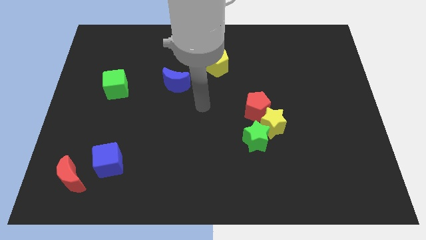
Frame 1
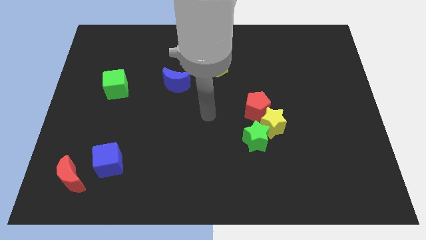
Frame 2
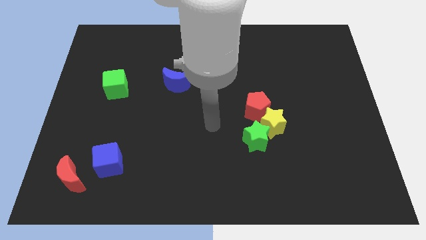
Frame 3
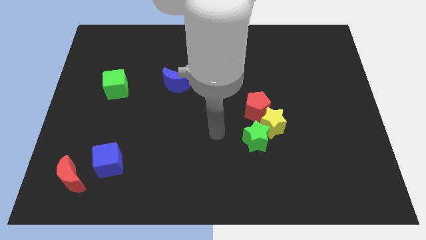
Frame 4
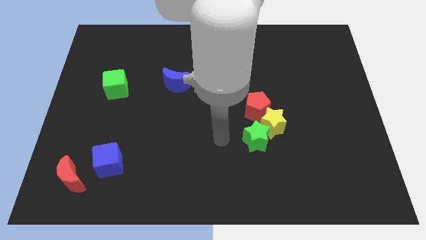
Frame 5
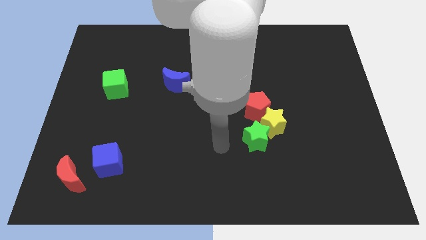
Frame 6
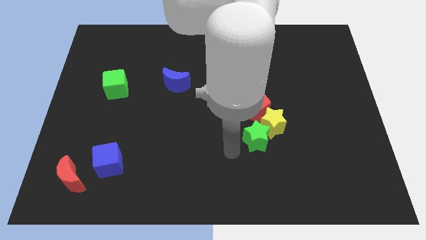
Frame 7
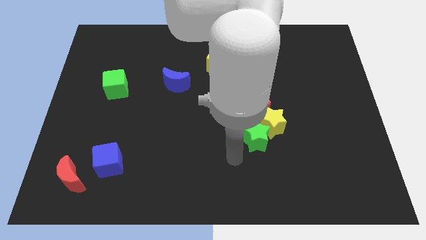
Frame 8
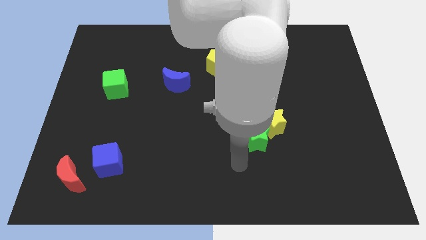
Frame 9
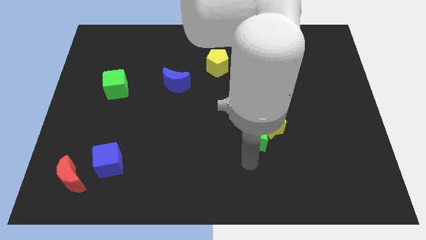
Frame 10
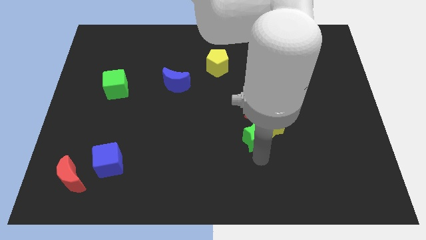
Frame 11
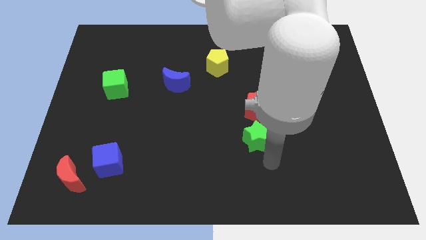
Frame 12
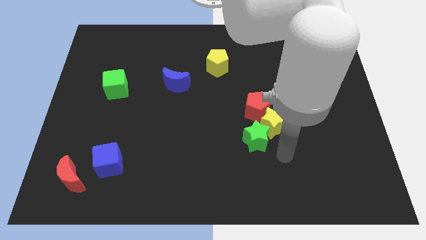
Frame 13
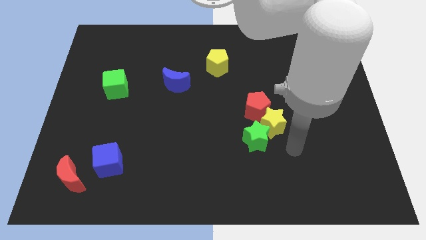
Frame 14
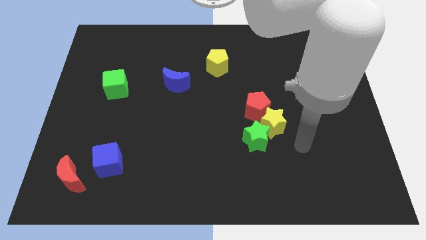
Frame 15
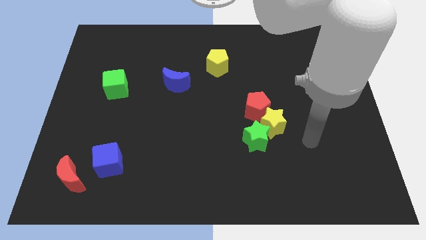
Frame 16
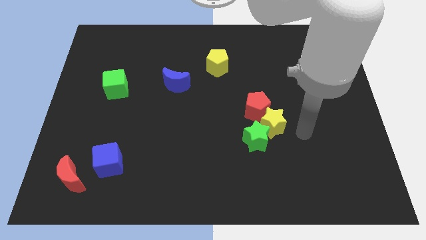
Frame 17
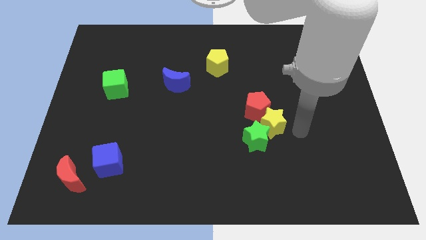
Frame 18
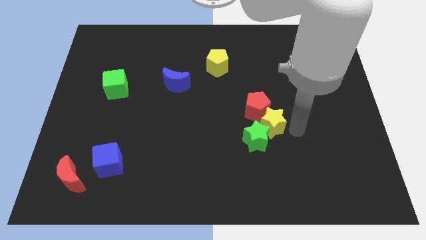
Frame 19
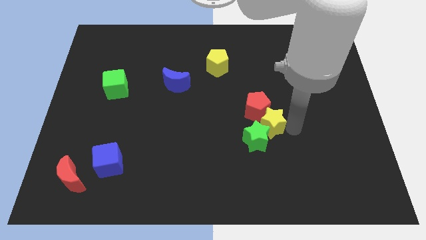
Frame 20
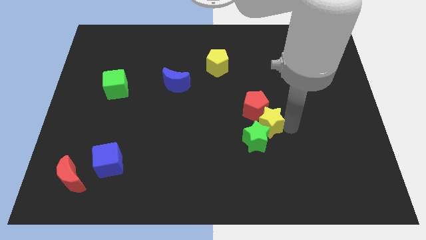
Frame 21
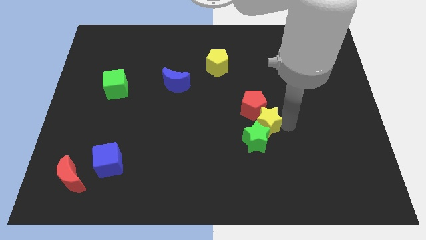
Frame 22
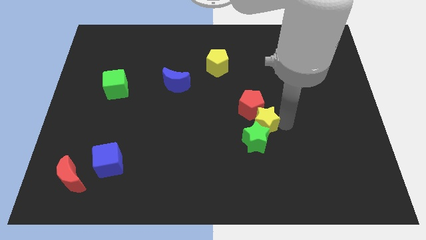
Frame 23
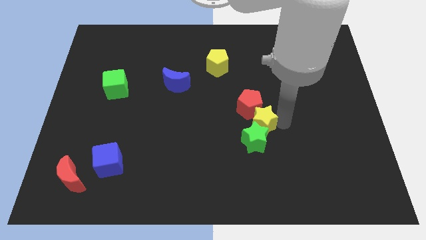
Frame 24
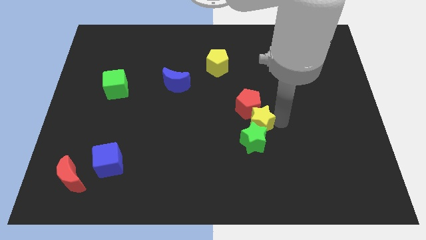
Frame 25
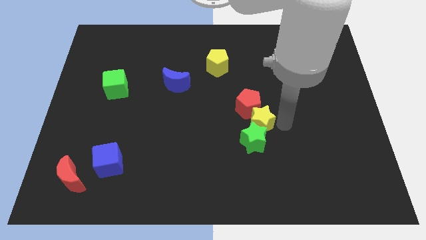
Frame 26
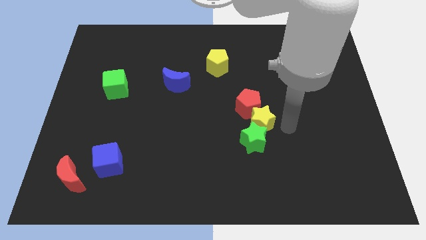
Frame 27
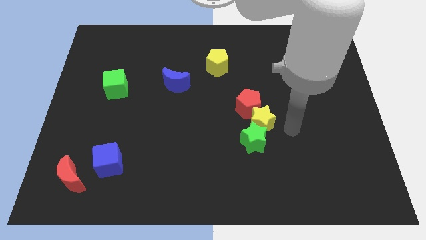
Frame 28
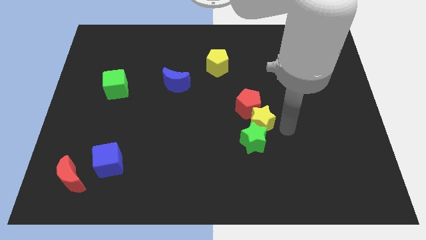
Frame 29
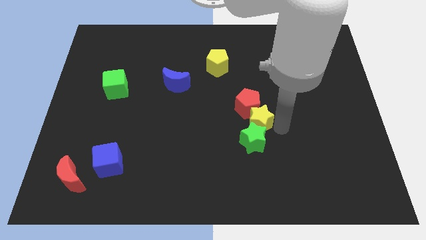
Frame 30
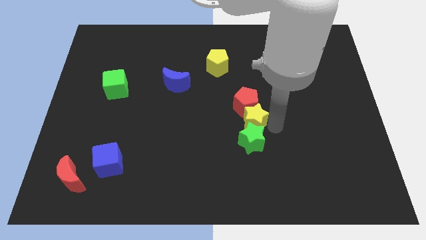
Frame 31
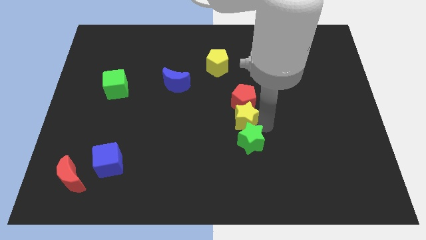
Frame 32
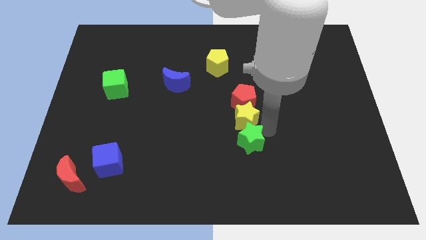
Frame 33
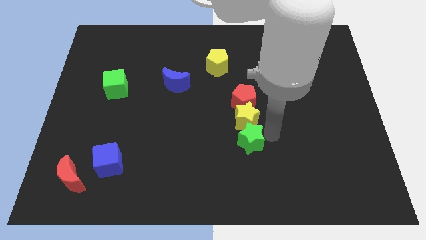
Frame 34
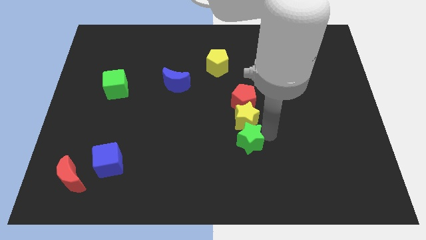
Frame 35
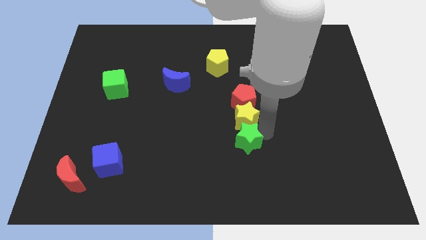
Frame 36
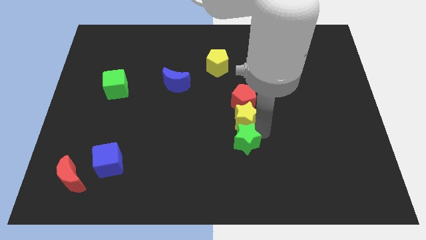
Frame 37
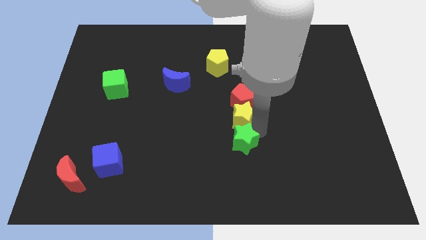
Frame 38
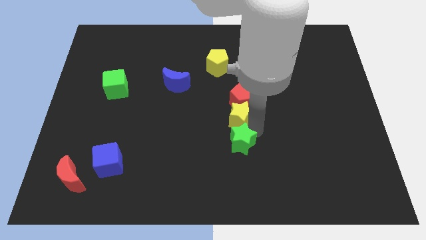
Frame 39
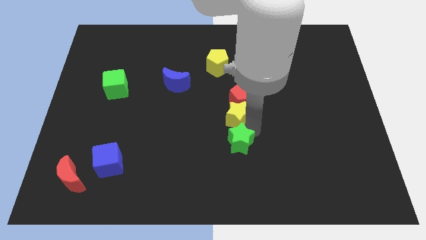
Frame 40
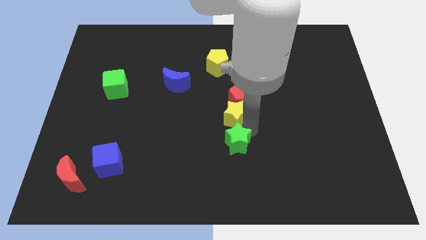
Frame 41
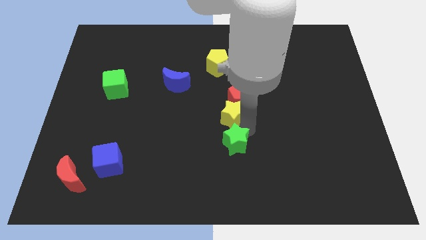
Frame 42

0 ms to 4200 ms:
move the yellow star up and left diagonally a little bit

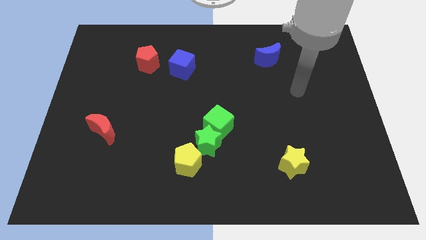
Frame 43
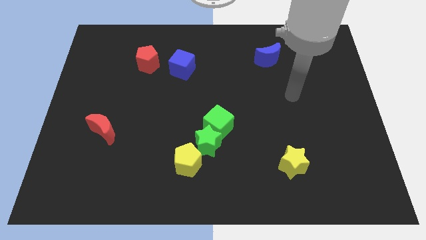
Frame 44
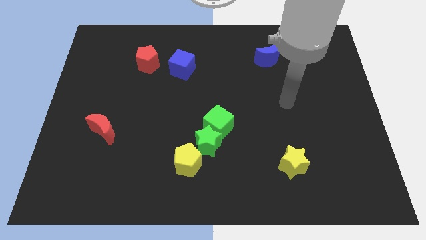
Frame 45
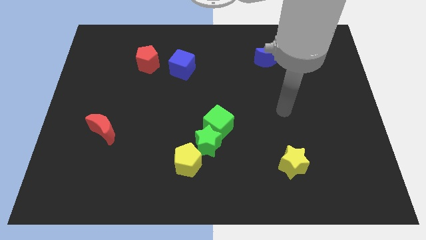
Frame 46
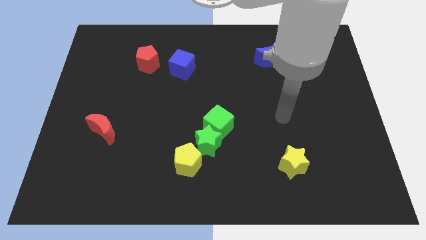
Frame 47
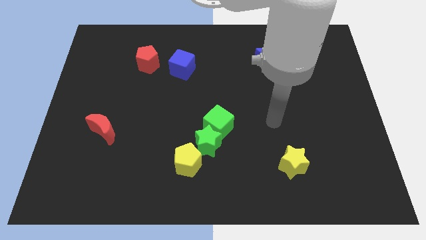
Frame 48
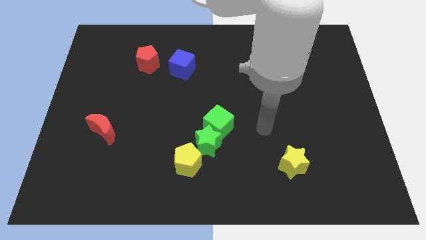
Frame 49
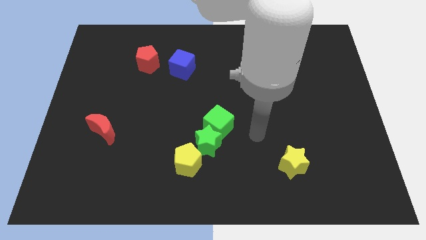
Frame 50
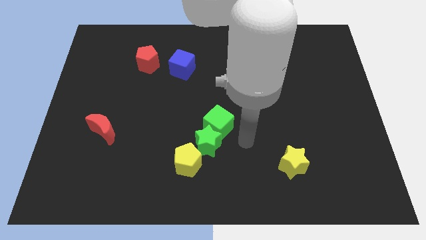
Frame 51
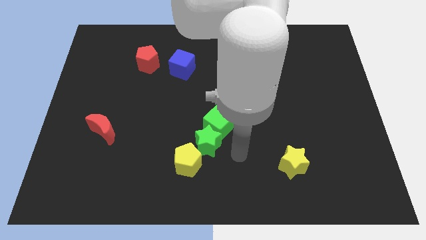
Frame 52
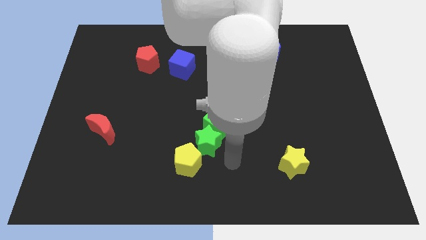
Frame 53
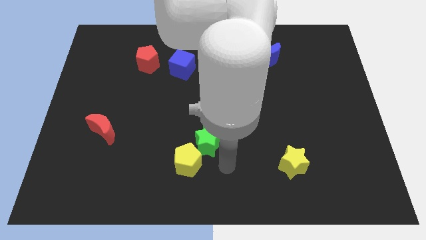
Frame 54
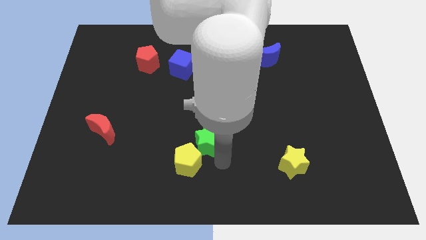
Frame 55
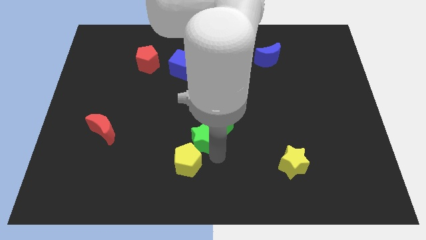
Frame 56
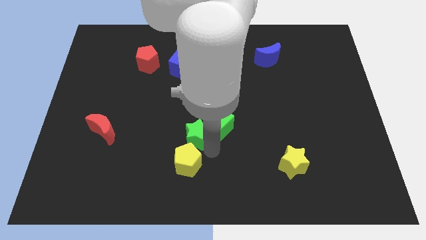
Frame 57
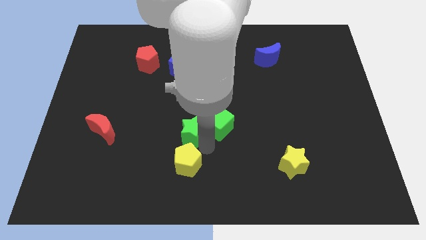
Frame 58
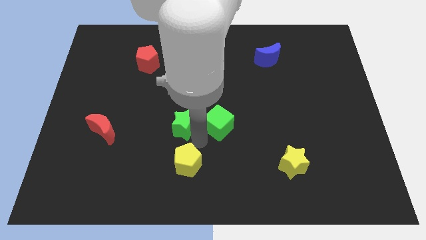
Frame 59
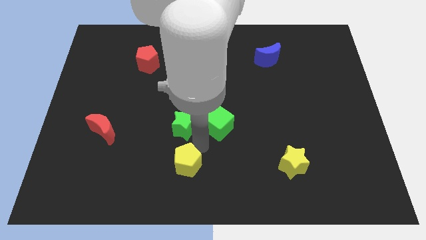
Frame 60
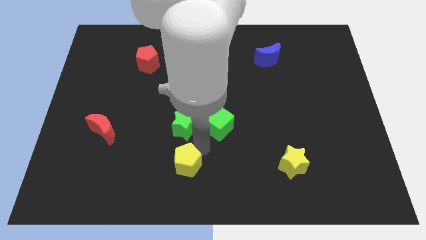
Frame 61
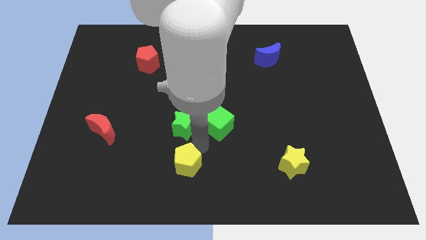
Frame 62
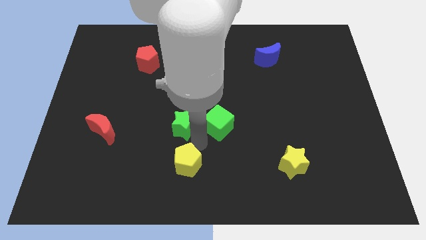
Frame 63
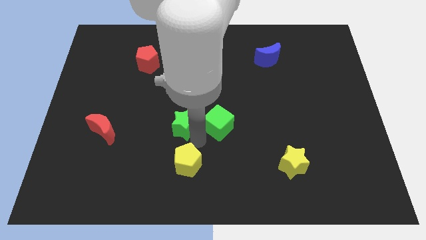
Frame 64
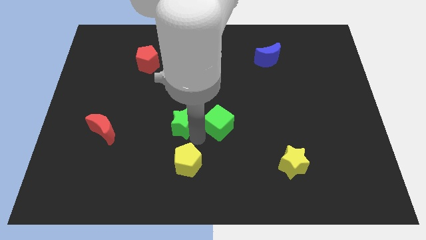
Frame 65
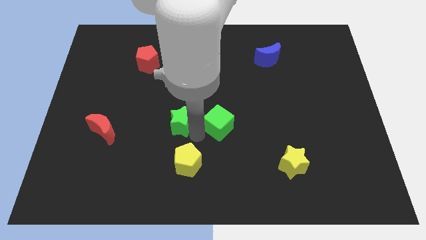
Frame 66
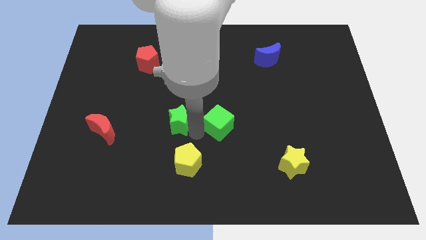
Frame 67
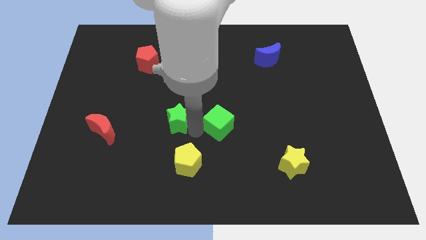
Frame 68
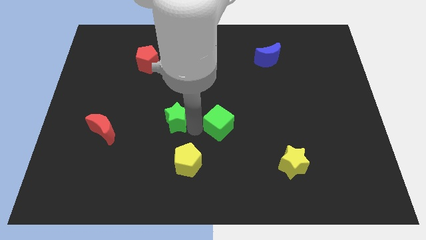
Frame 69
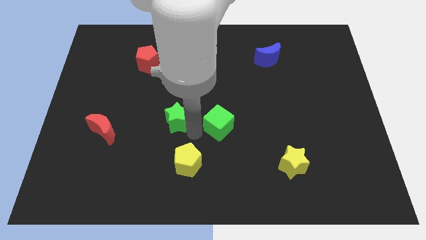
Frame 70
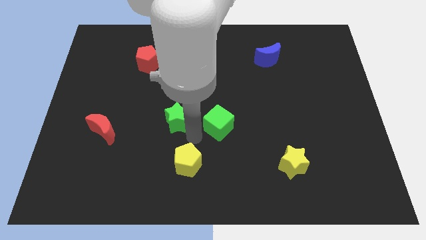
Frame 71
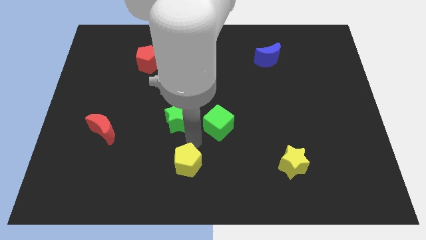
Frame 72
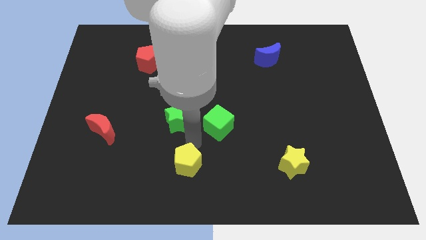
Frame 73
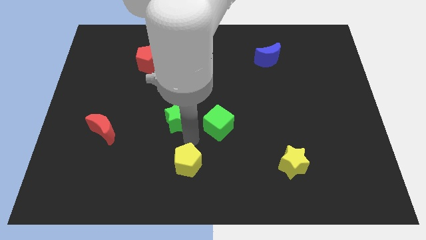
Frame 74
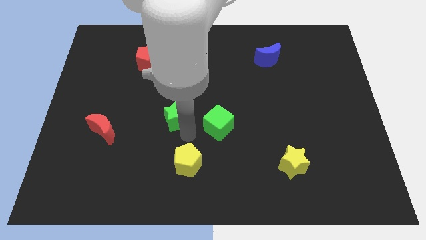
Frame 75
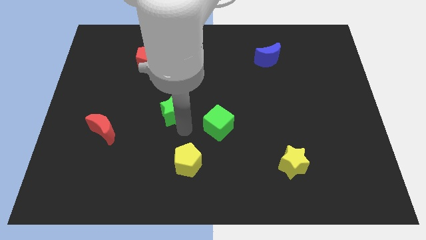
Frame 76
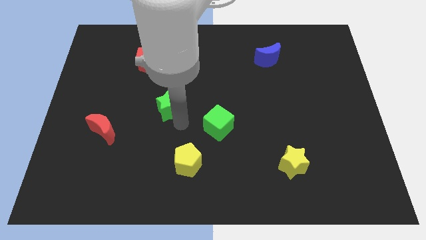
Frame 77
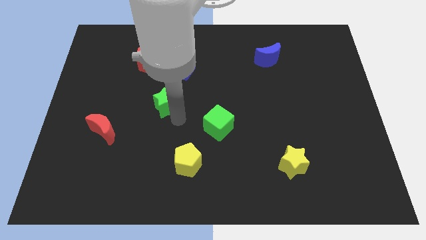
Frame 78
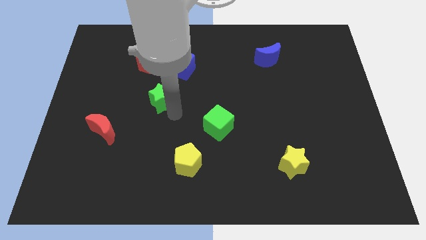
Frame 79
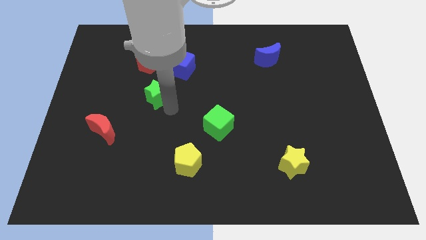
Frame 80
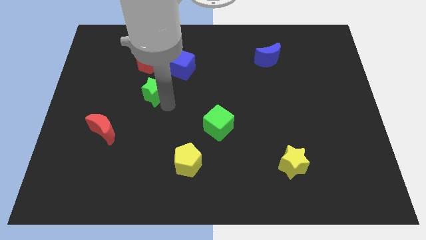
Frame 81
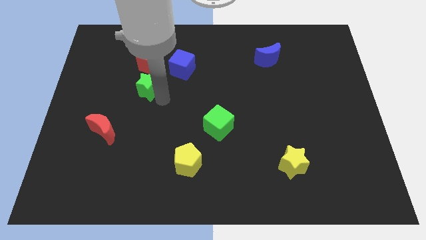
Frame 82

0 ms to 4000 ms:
push the green star upwards and left diagonally
